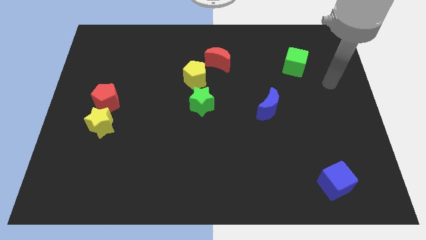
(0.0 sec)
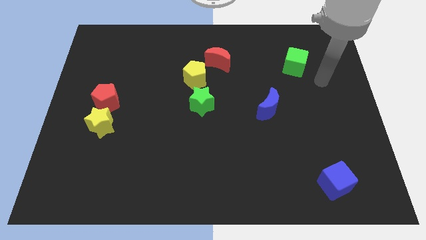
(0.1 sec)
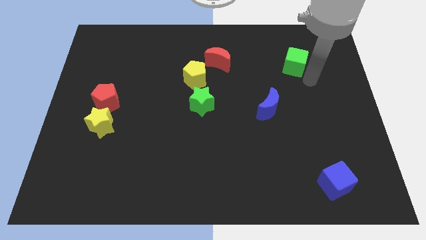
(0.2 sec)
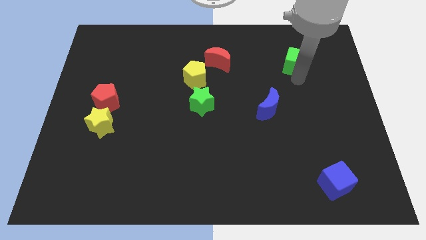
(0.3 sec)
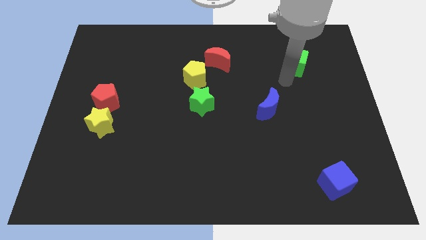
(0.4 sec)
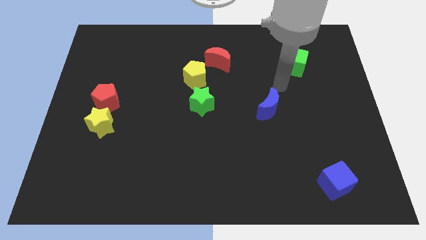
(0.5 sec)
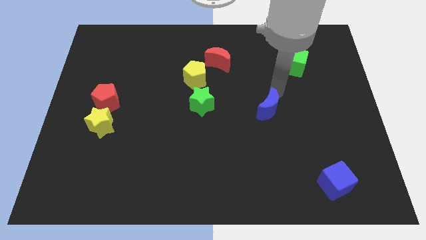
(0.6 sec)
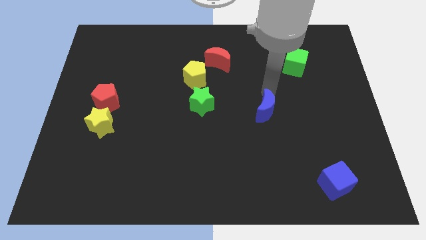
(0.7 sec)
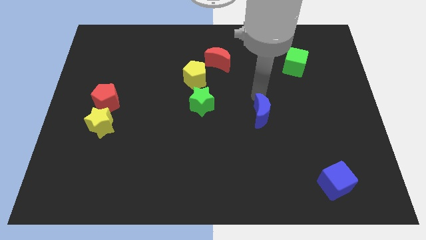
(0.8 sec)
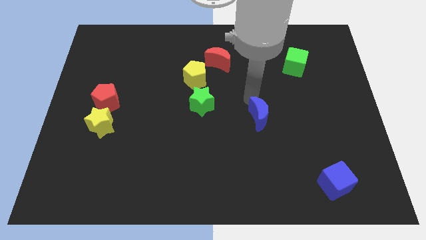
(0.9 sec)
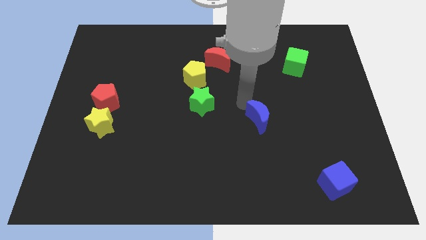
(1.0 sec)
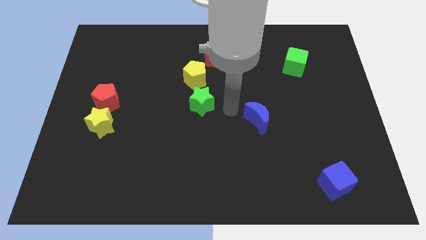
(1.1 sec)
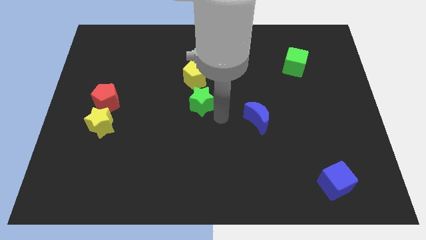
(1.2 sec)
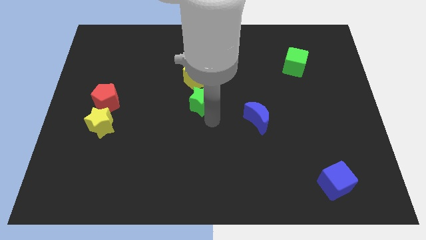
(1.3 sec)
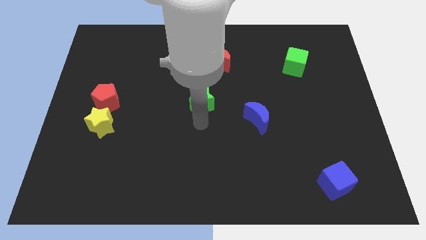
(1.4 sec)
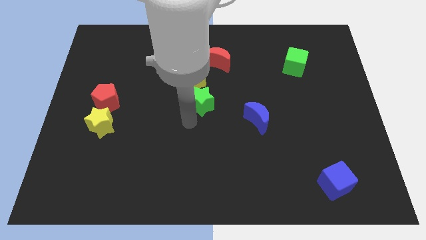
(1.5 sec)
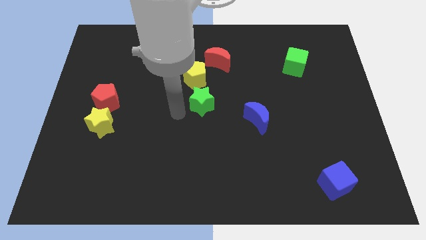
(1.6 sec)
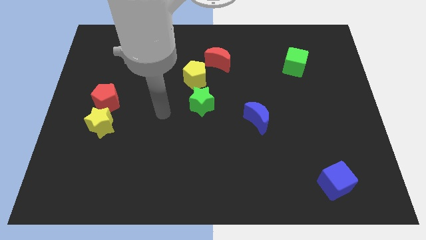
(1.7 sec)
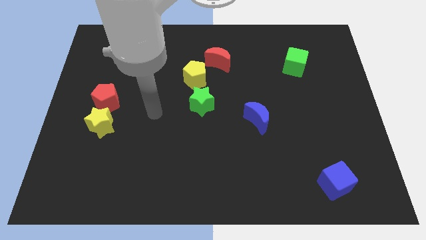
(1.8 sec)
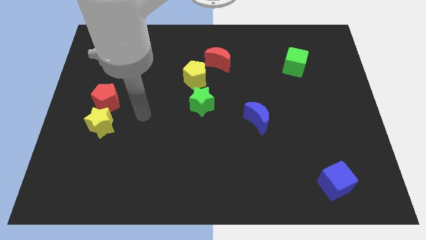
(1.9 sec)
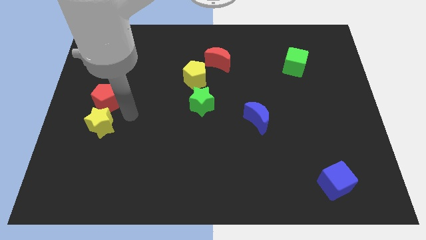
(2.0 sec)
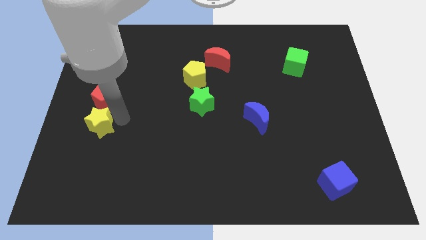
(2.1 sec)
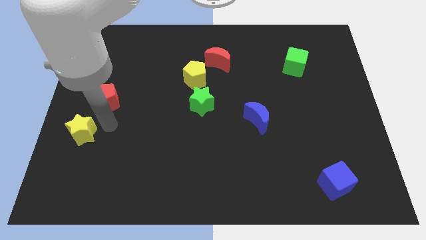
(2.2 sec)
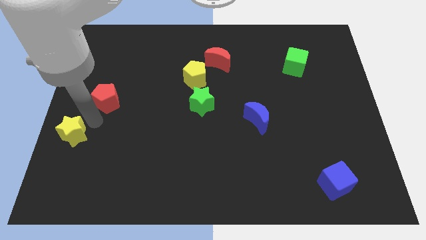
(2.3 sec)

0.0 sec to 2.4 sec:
separate the red pentagon from the yellow star

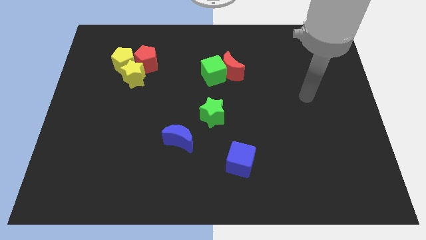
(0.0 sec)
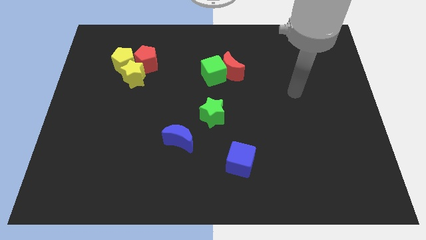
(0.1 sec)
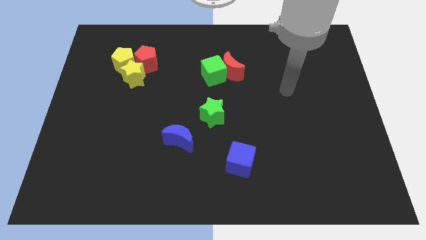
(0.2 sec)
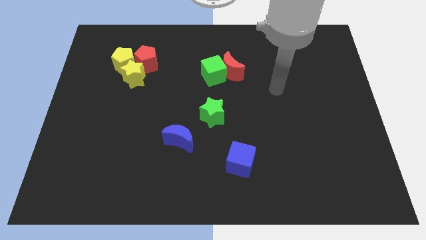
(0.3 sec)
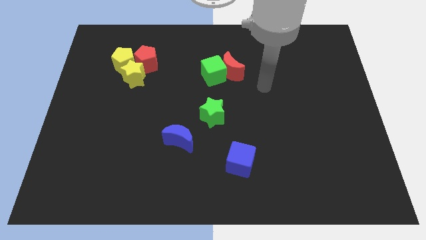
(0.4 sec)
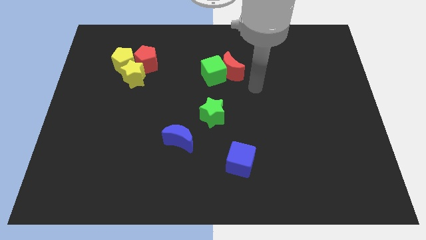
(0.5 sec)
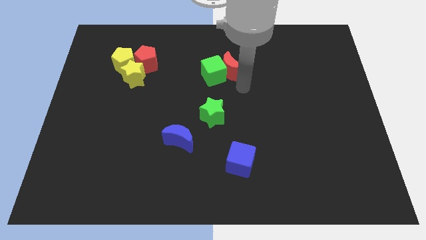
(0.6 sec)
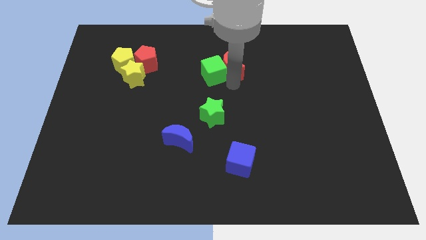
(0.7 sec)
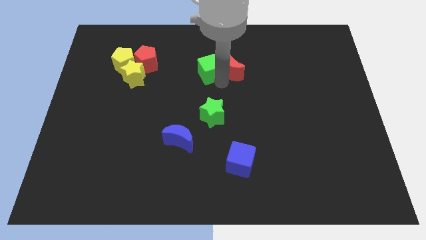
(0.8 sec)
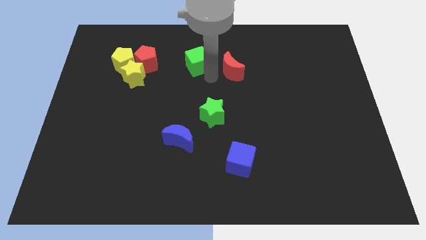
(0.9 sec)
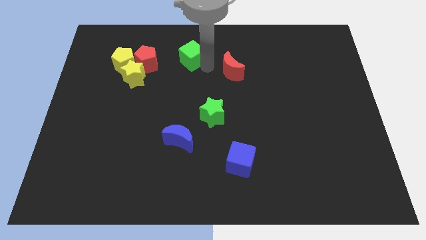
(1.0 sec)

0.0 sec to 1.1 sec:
move the red moon away from the green cube

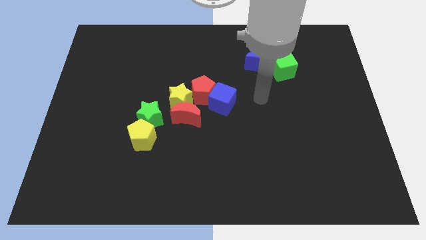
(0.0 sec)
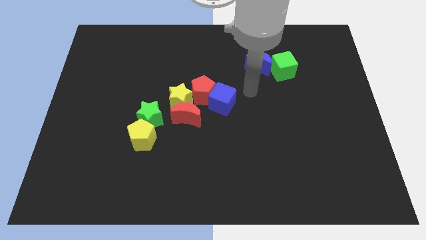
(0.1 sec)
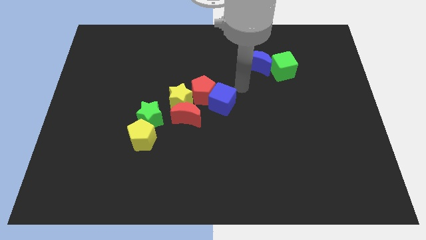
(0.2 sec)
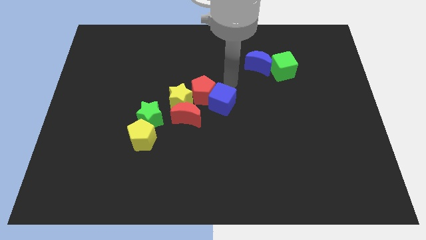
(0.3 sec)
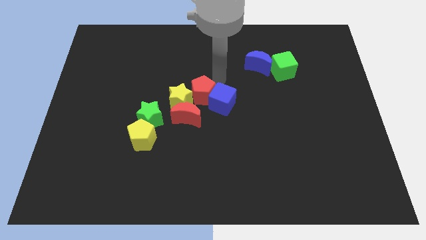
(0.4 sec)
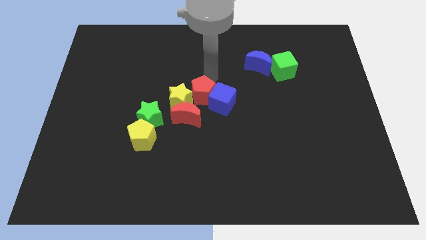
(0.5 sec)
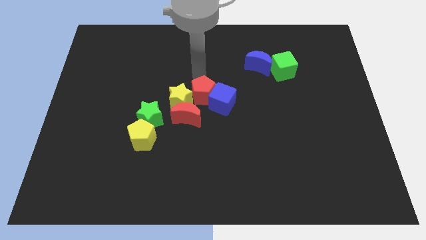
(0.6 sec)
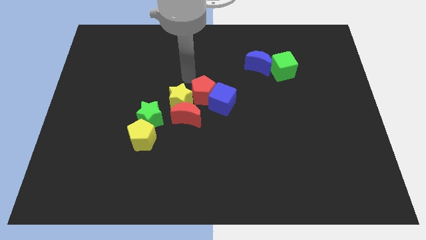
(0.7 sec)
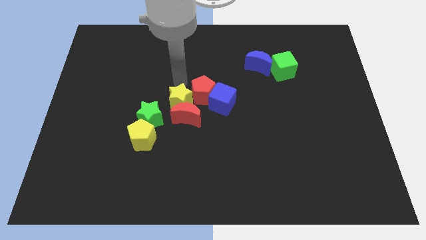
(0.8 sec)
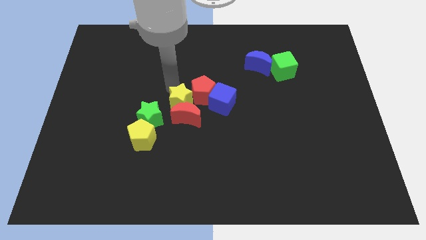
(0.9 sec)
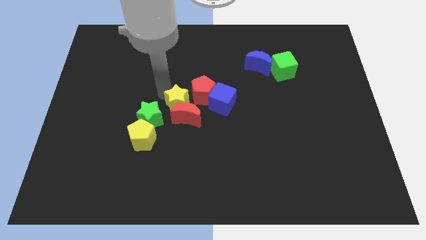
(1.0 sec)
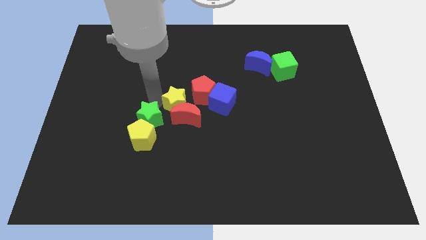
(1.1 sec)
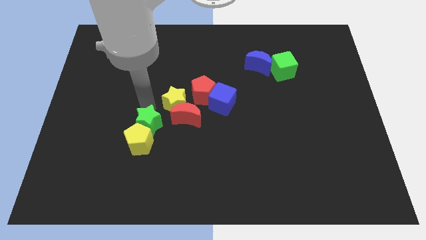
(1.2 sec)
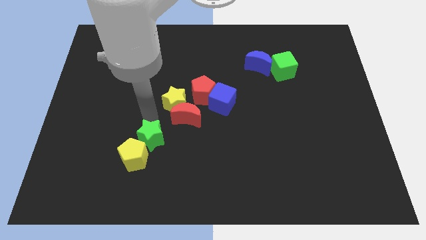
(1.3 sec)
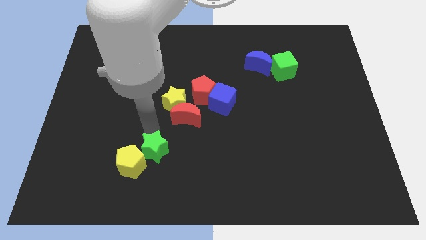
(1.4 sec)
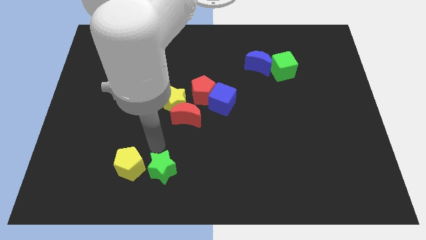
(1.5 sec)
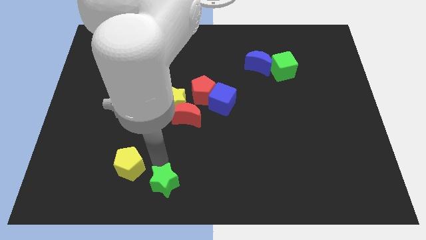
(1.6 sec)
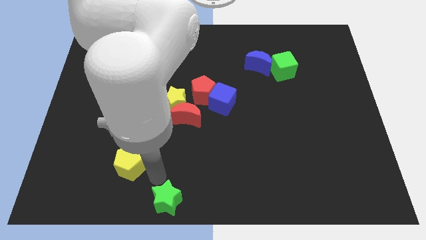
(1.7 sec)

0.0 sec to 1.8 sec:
pull the yellow pentagon apart from the green star

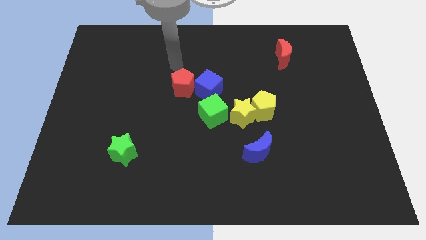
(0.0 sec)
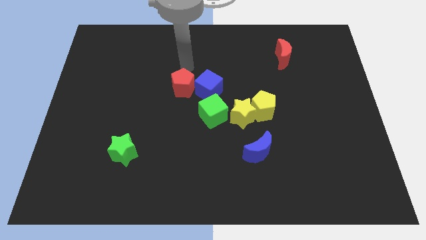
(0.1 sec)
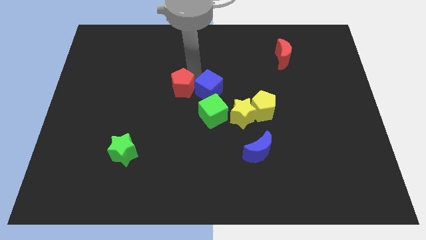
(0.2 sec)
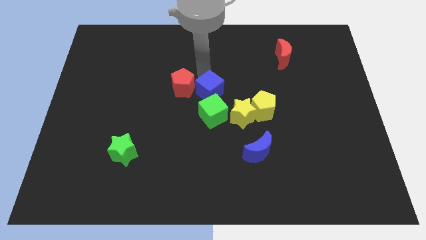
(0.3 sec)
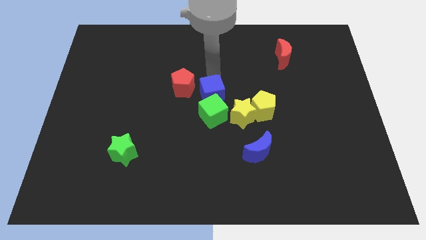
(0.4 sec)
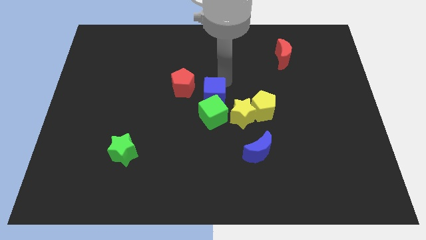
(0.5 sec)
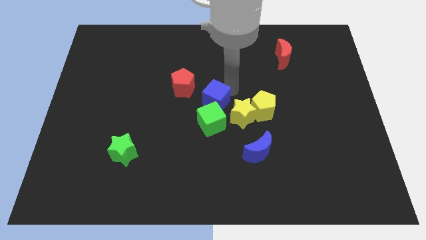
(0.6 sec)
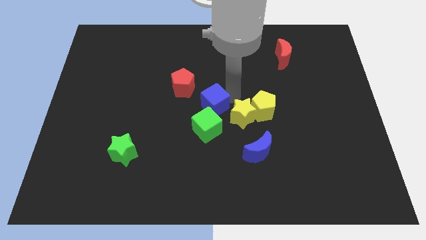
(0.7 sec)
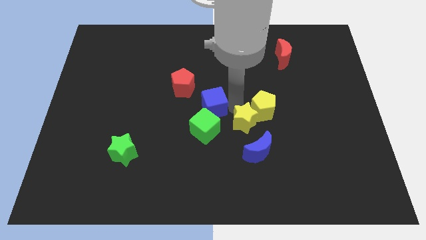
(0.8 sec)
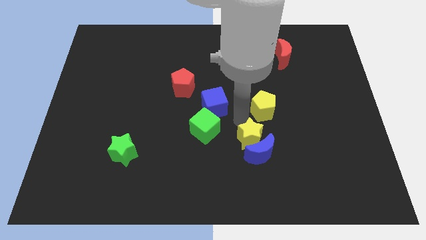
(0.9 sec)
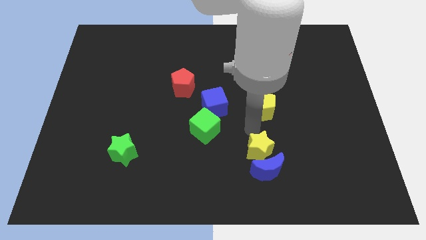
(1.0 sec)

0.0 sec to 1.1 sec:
separate the yellow pentagon from the yellow star

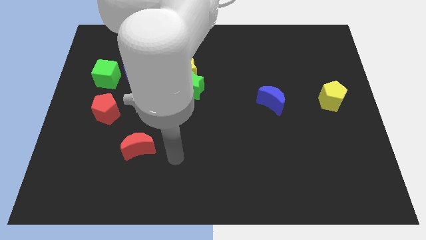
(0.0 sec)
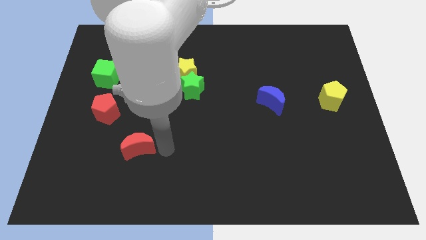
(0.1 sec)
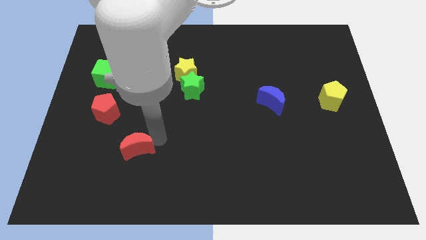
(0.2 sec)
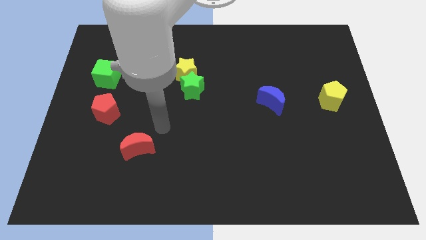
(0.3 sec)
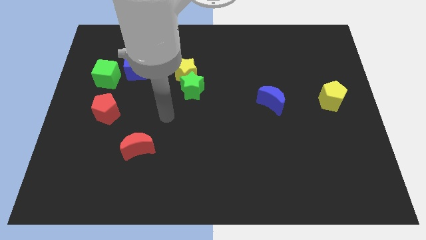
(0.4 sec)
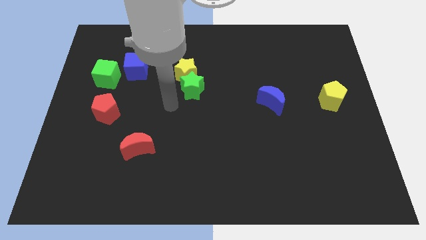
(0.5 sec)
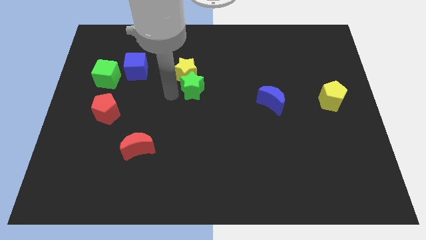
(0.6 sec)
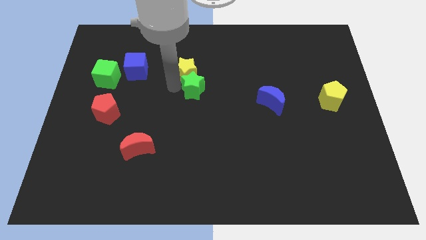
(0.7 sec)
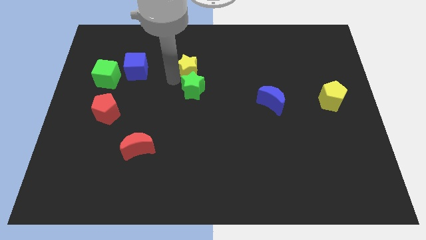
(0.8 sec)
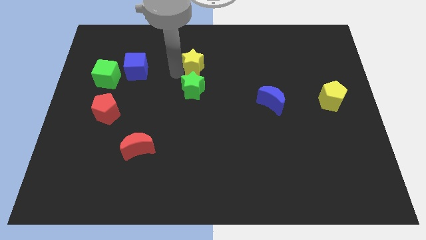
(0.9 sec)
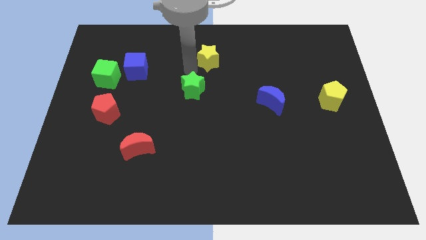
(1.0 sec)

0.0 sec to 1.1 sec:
pull the green star apart from the yellow star

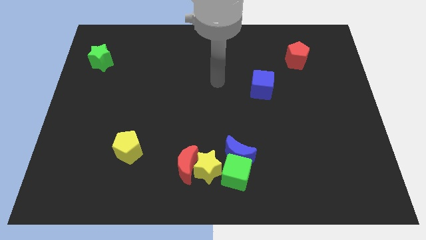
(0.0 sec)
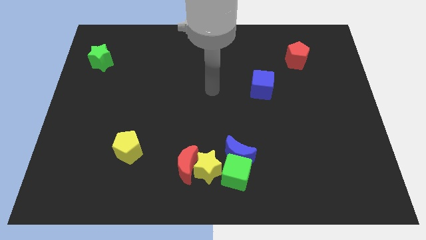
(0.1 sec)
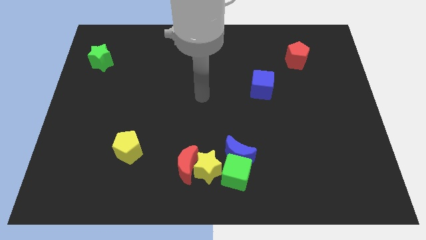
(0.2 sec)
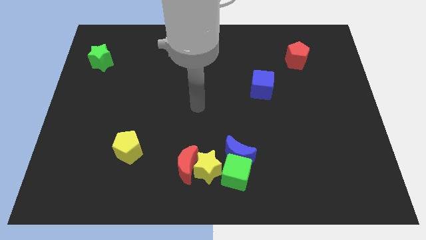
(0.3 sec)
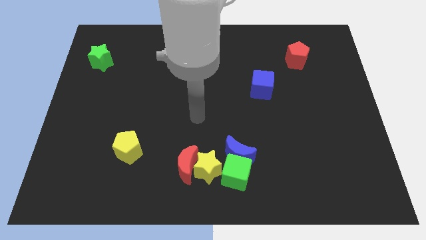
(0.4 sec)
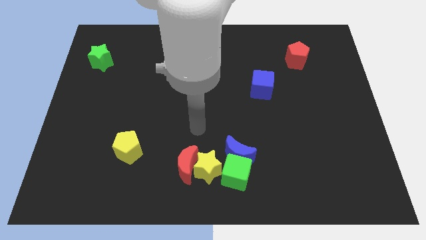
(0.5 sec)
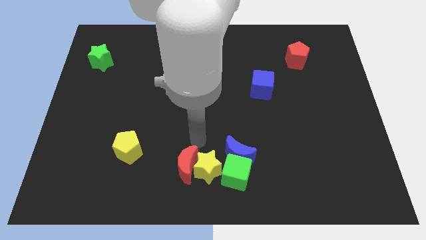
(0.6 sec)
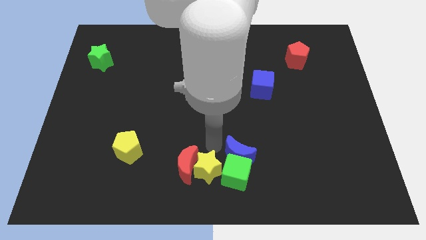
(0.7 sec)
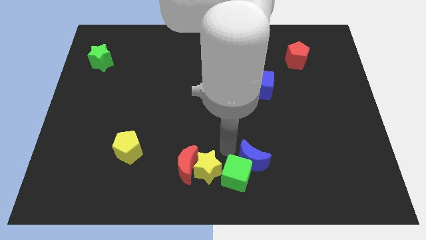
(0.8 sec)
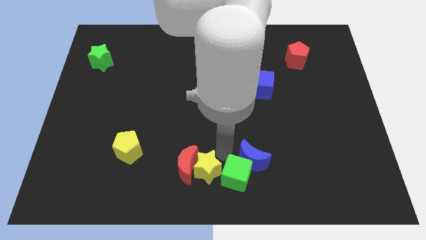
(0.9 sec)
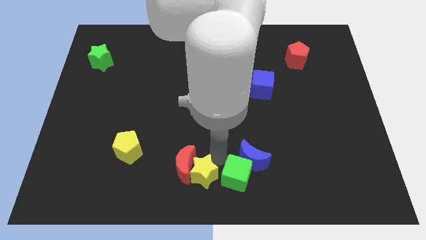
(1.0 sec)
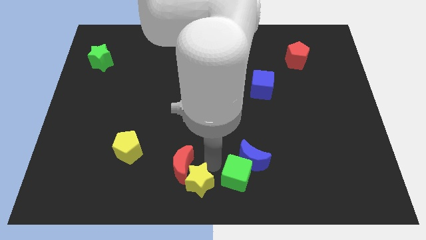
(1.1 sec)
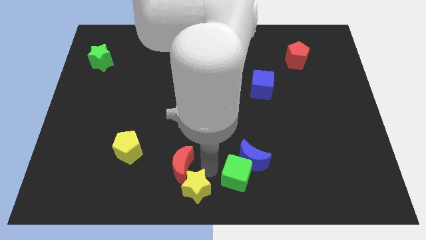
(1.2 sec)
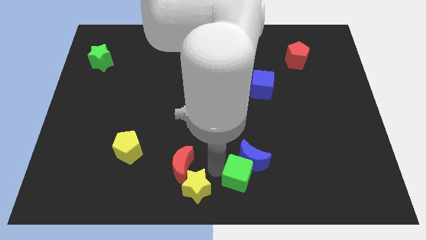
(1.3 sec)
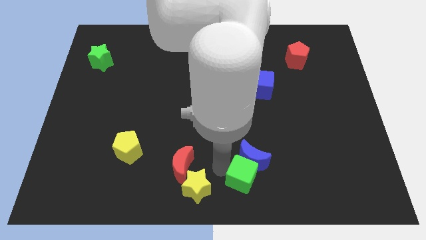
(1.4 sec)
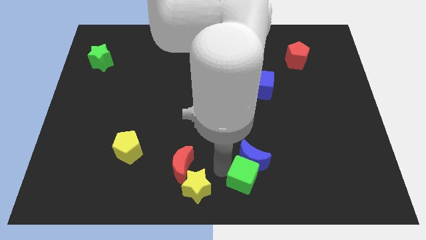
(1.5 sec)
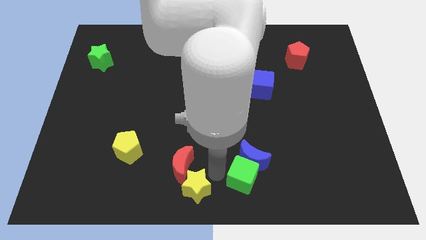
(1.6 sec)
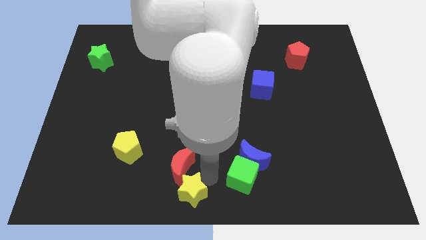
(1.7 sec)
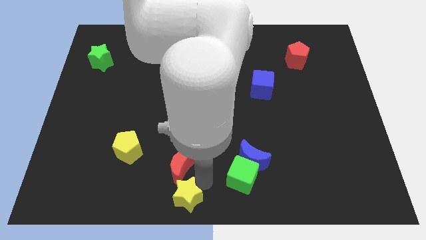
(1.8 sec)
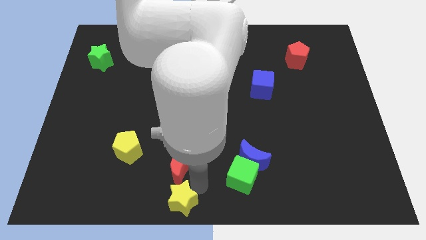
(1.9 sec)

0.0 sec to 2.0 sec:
move the yellow star away from the red moon, green cube, and blue moon
